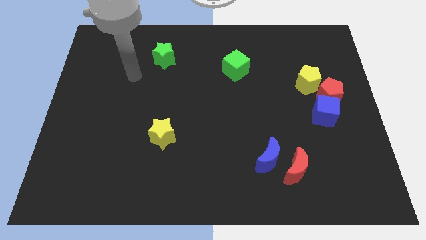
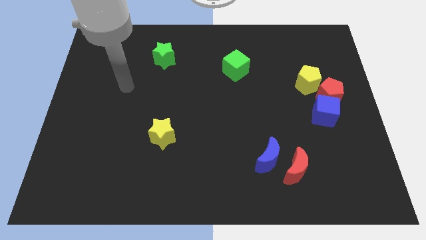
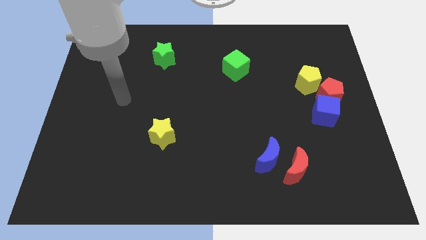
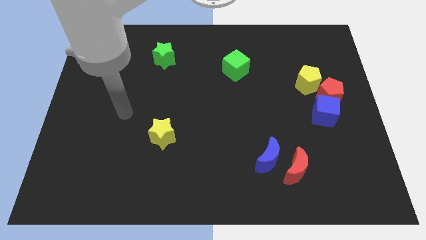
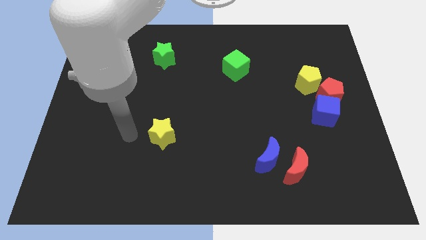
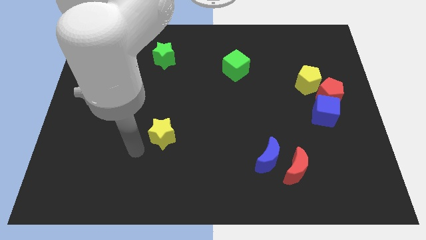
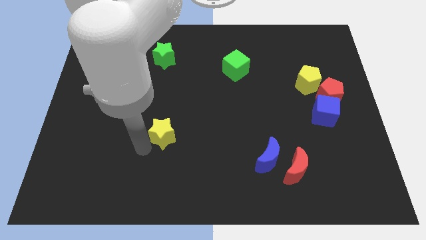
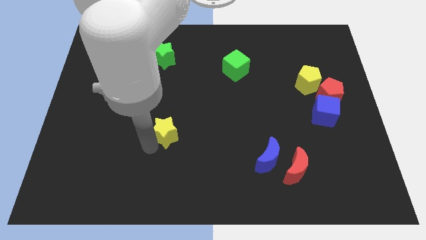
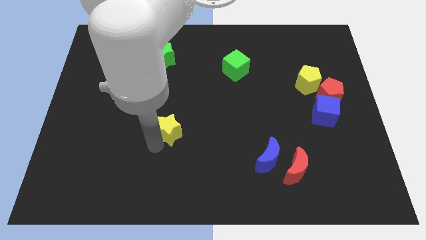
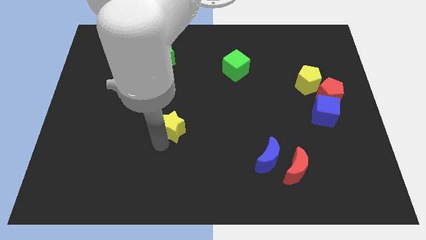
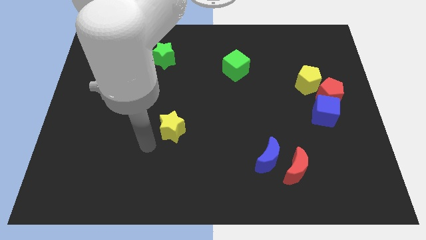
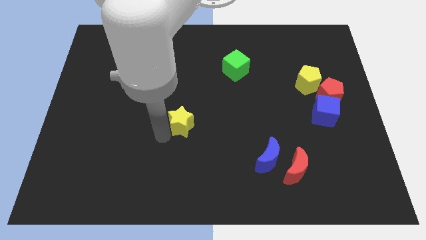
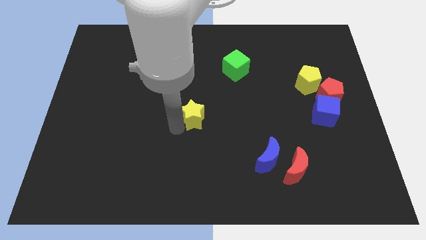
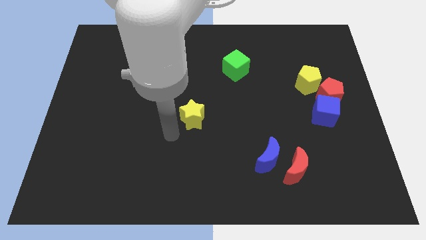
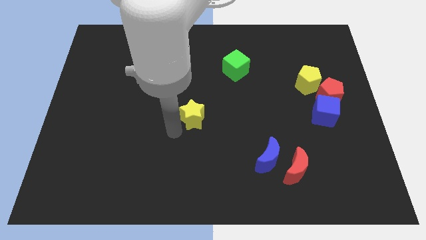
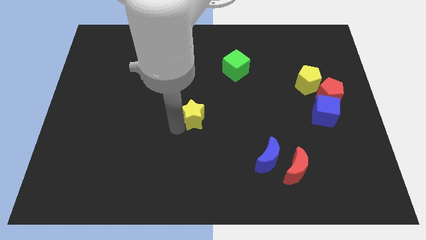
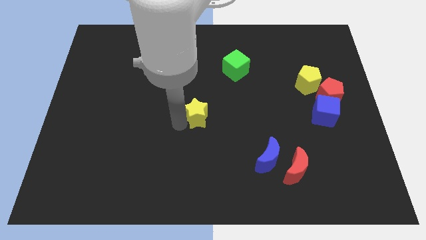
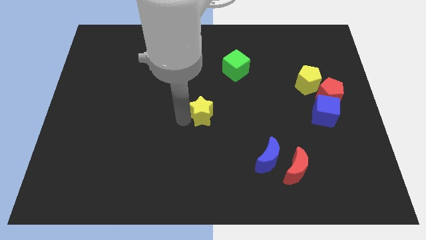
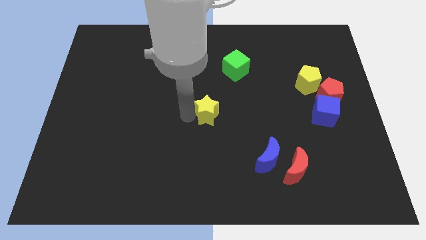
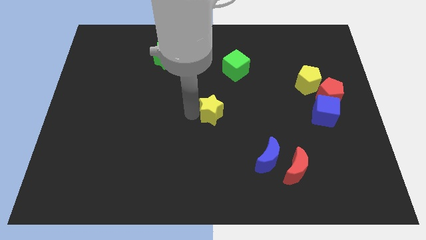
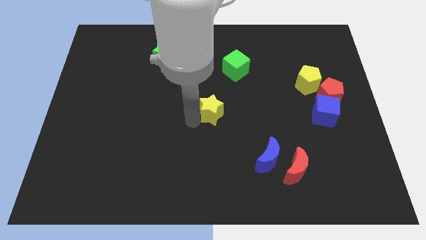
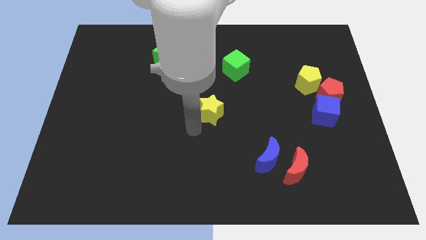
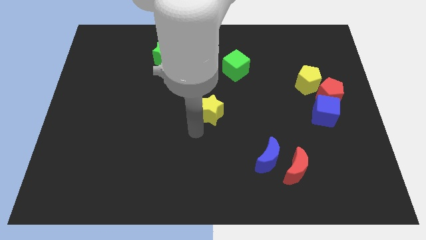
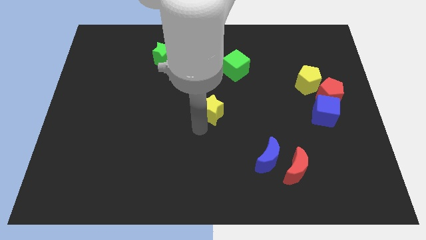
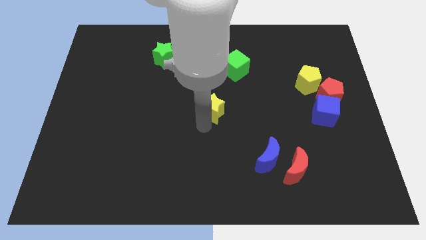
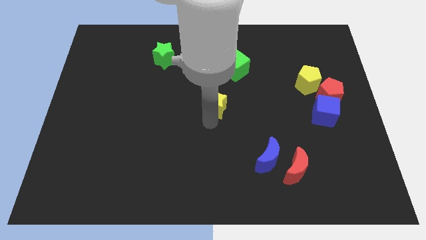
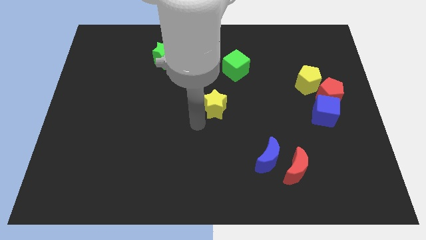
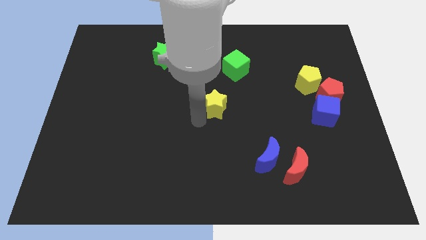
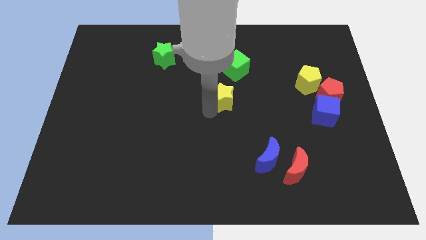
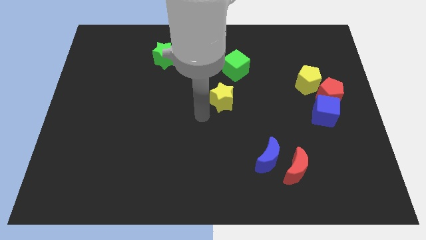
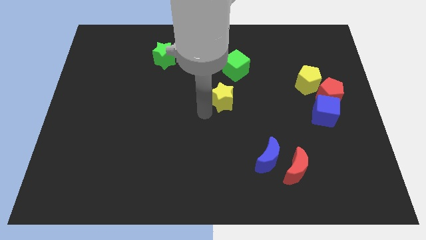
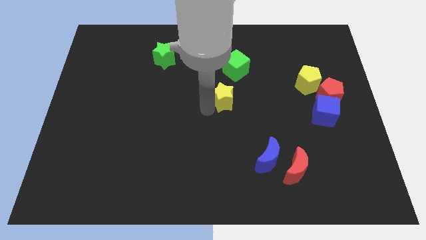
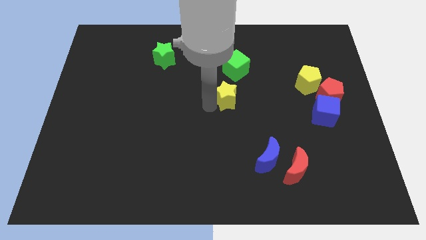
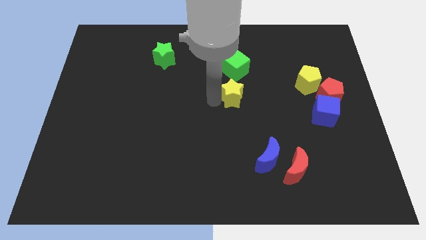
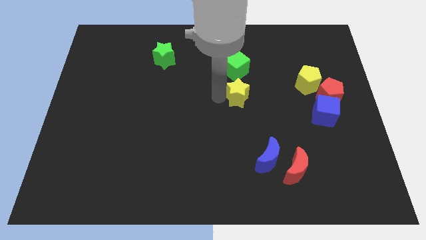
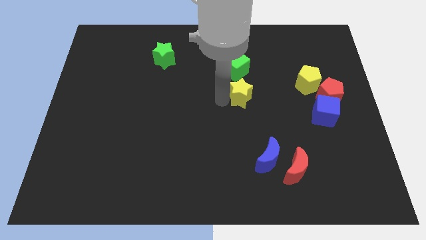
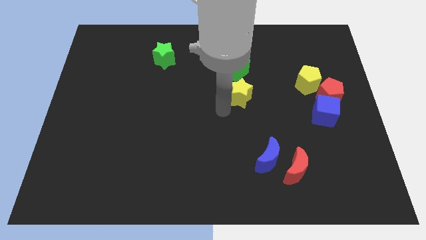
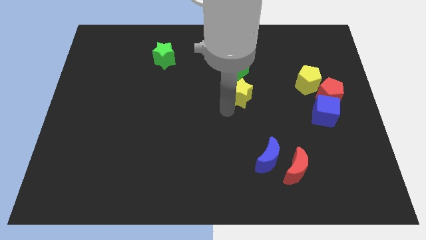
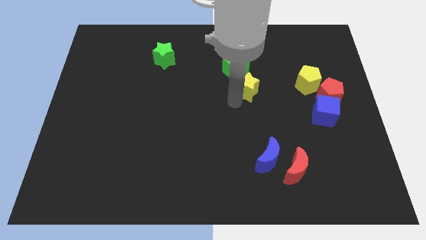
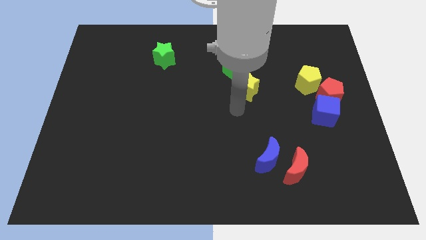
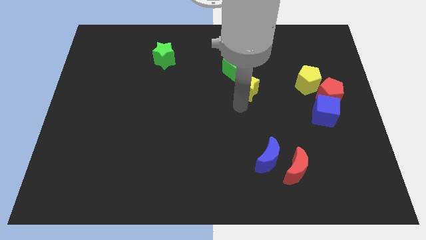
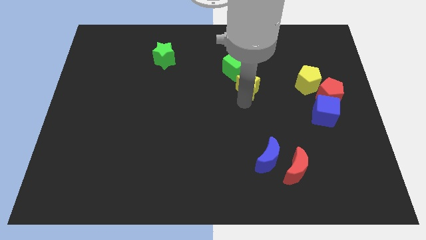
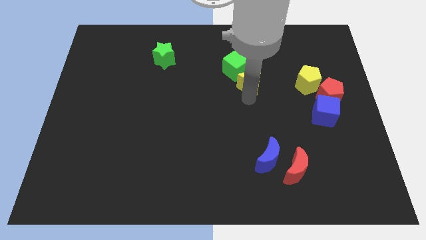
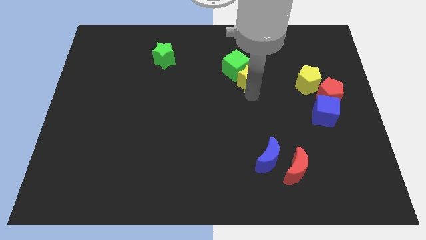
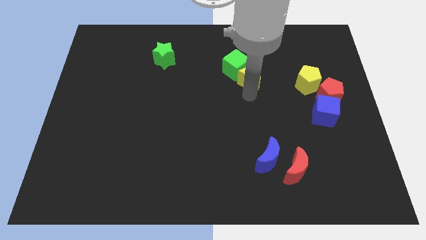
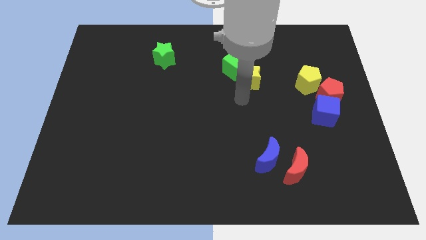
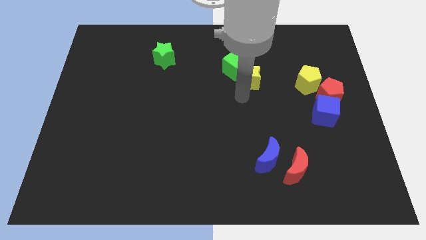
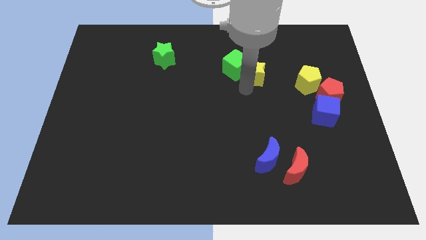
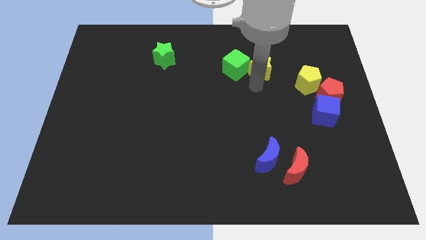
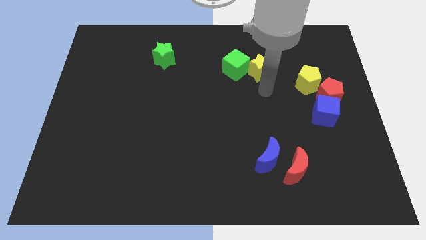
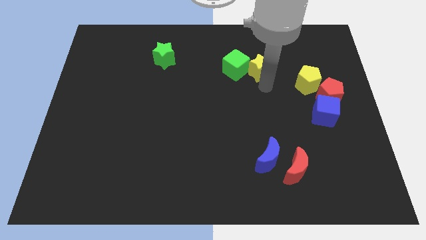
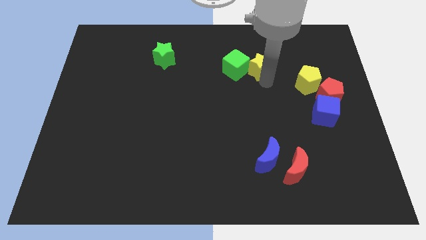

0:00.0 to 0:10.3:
put the yellow star to the top right side of the green cube

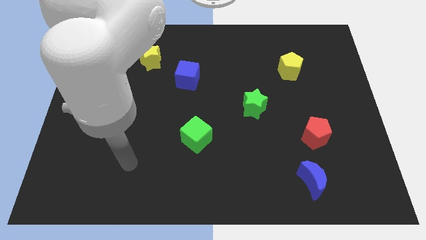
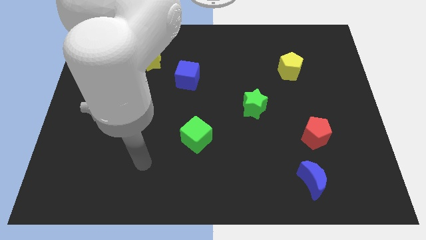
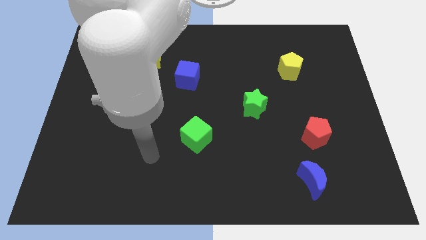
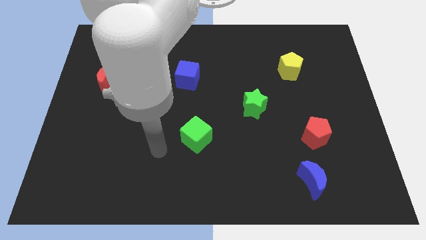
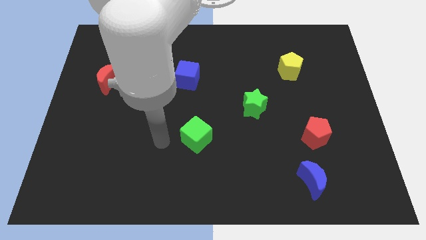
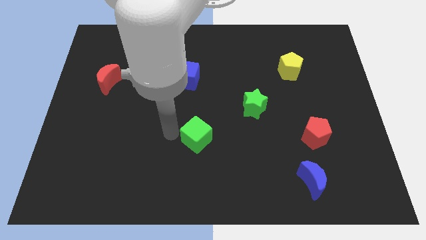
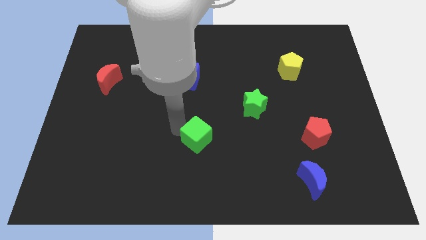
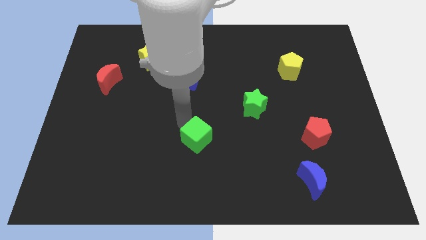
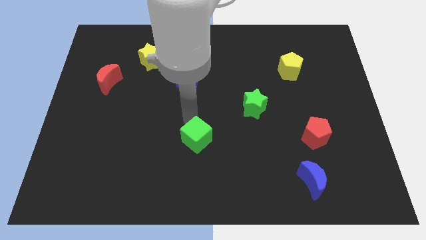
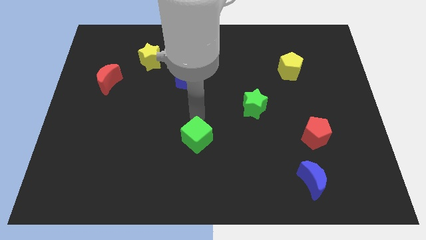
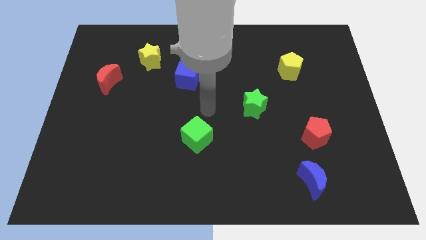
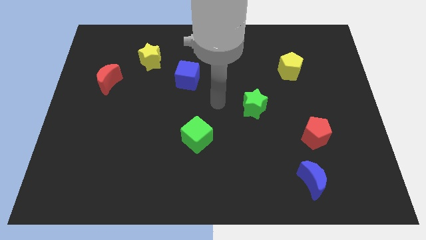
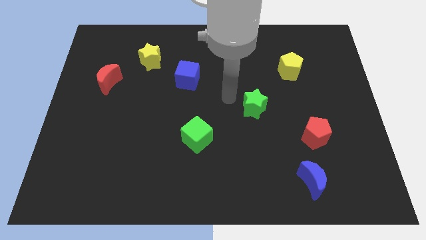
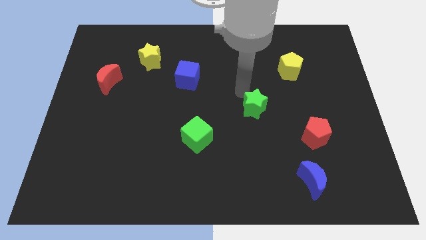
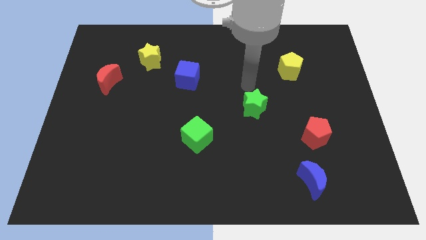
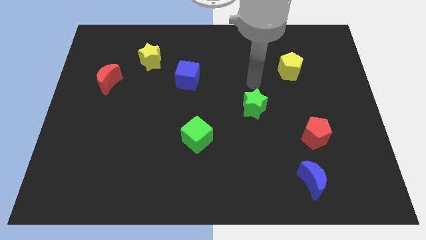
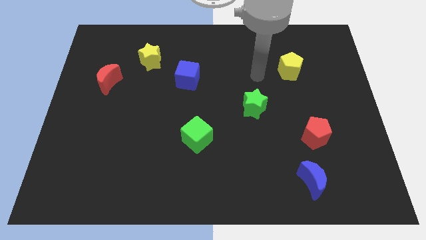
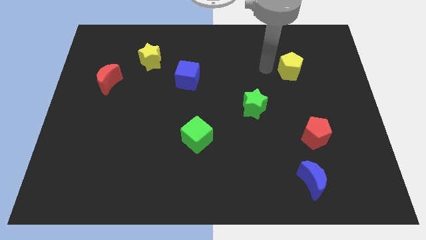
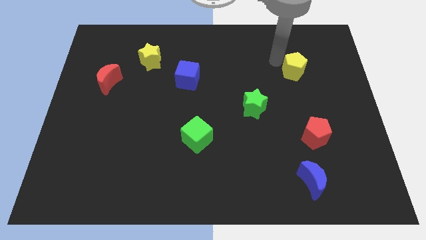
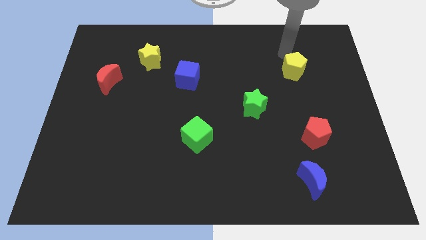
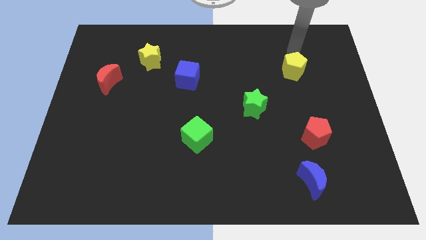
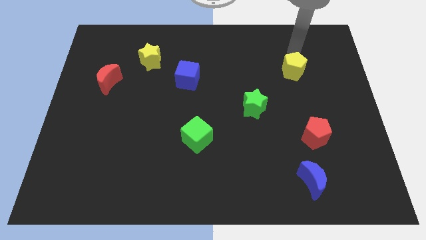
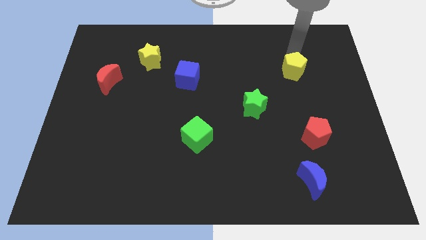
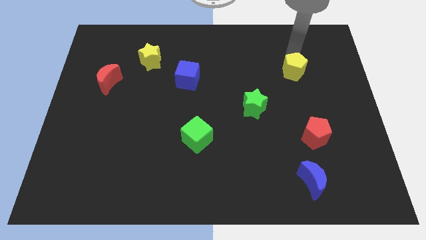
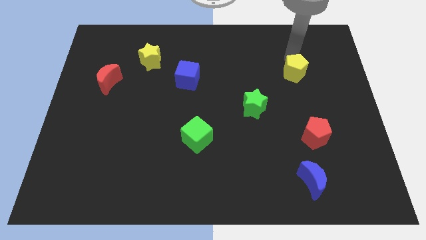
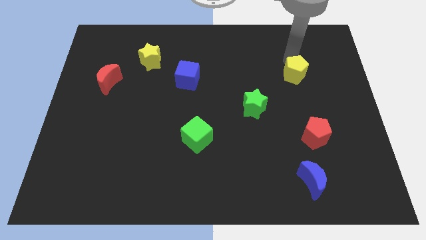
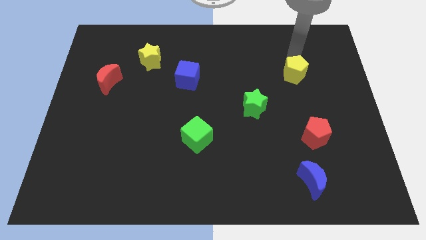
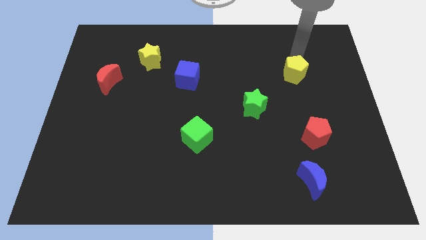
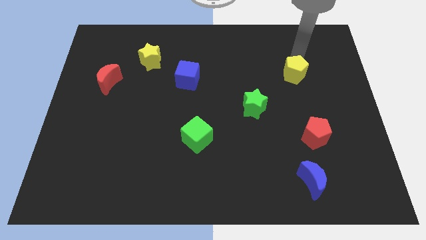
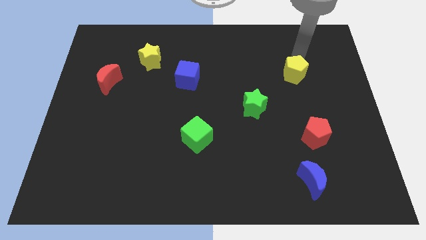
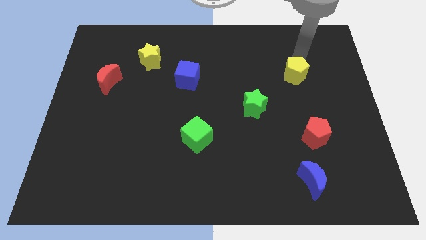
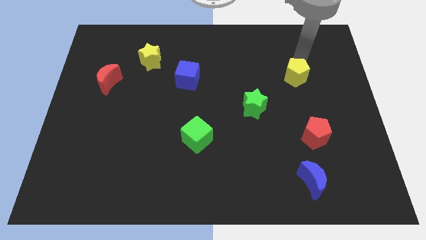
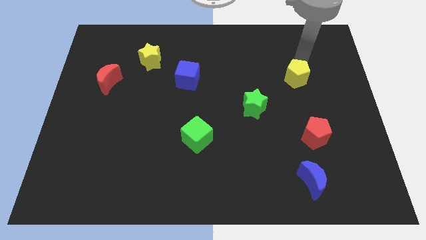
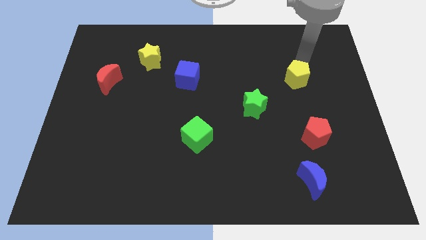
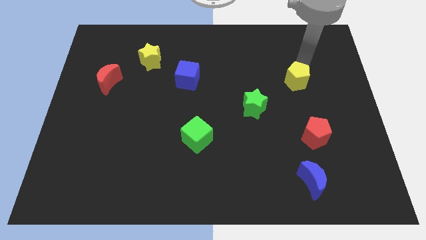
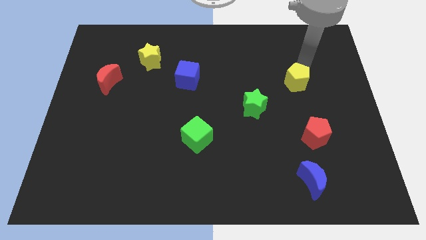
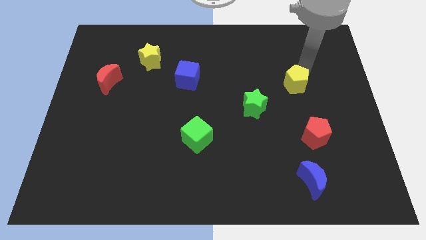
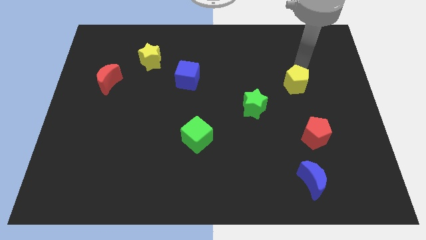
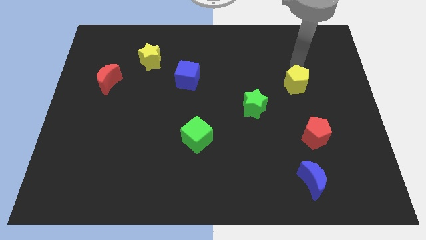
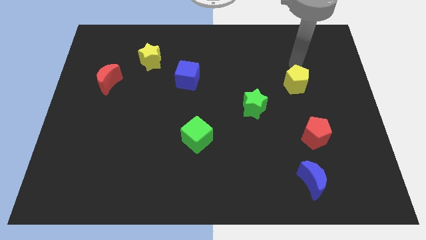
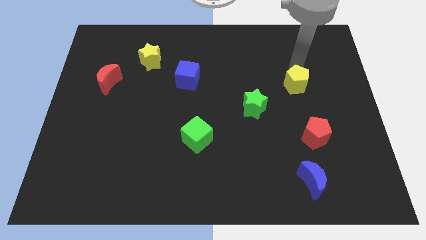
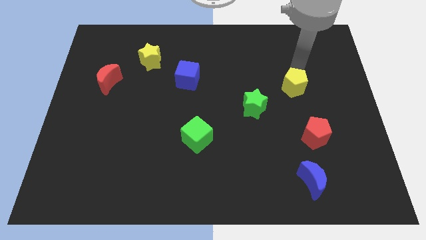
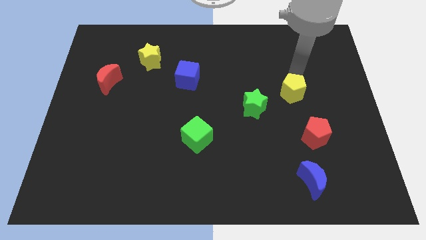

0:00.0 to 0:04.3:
push the yellow pentagon right of the green star
